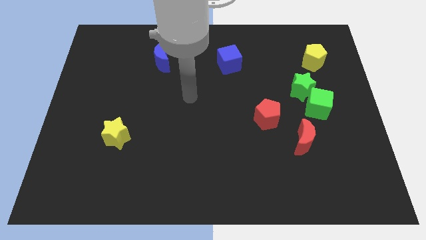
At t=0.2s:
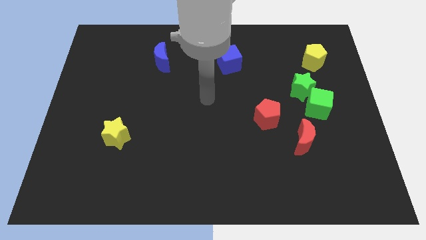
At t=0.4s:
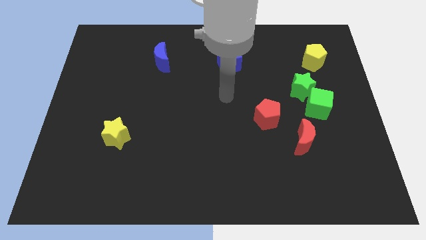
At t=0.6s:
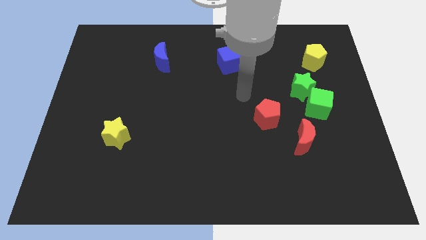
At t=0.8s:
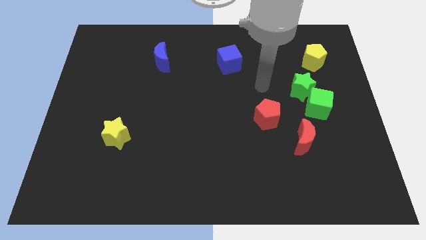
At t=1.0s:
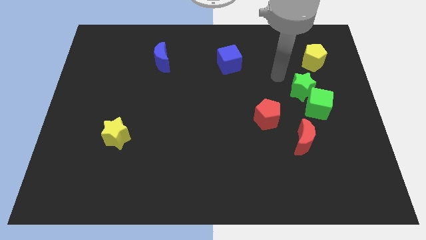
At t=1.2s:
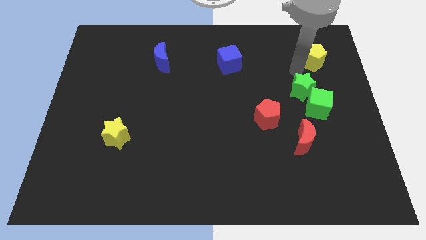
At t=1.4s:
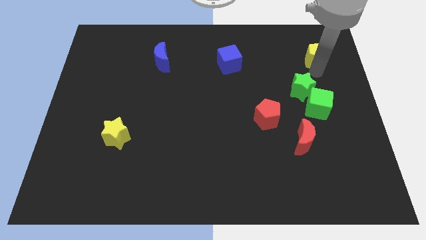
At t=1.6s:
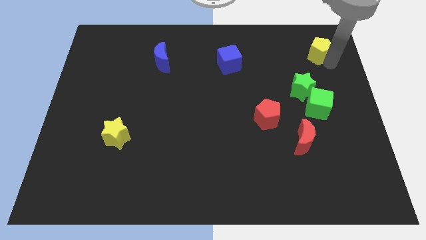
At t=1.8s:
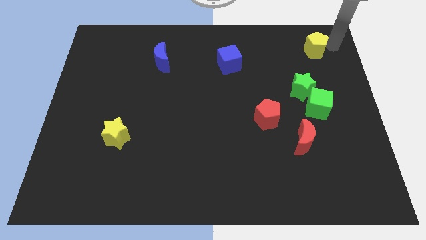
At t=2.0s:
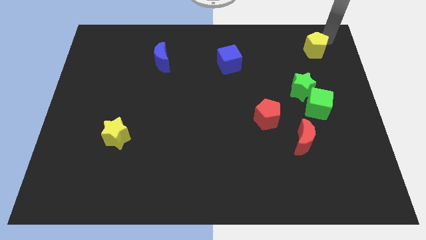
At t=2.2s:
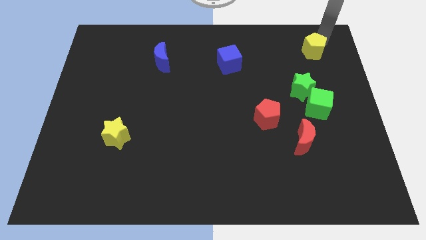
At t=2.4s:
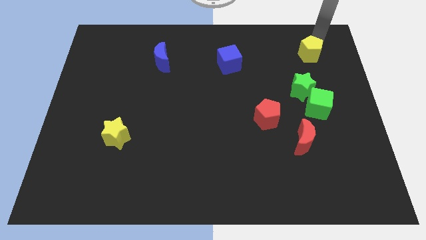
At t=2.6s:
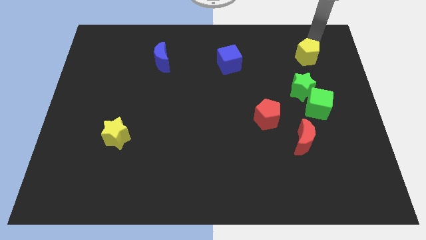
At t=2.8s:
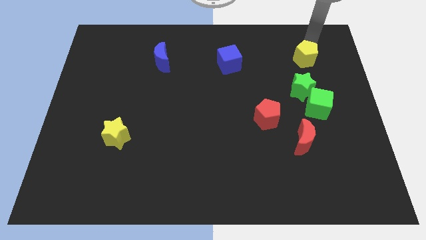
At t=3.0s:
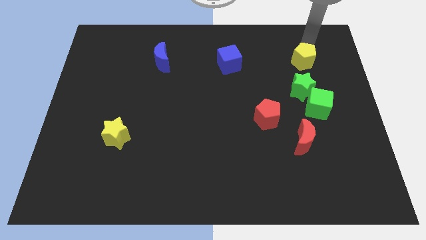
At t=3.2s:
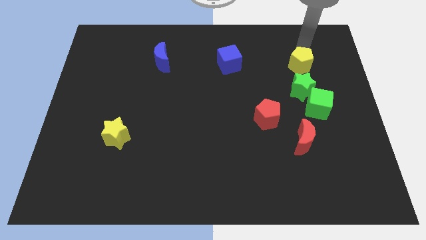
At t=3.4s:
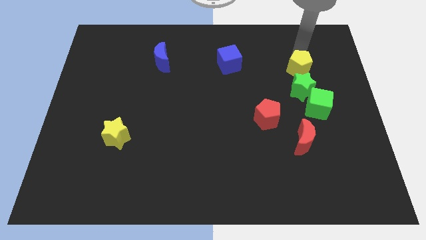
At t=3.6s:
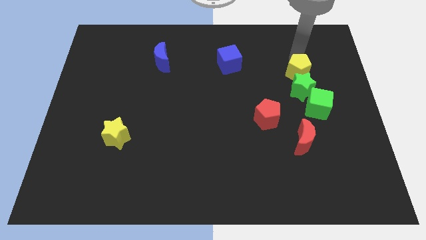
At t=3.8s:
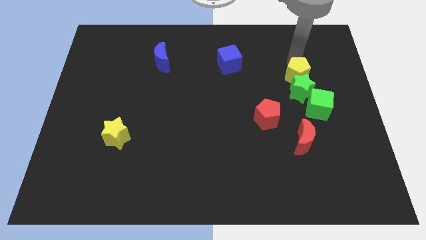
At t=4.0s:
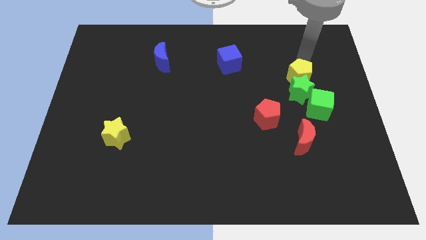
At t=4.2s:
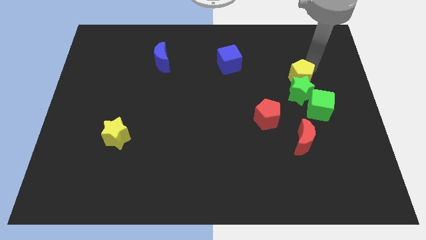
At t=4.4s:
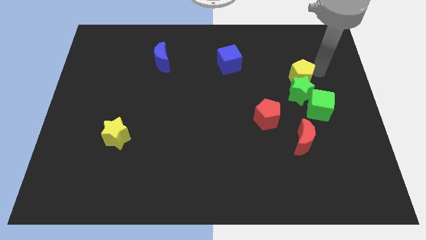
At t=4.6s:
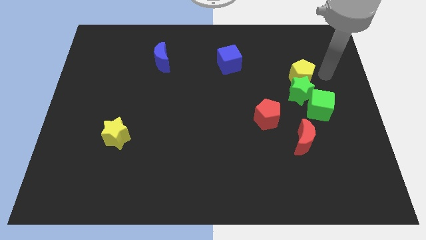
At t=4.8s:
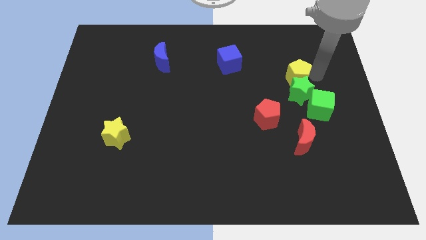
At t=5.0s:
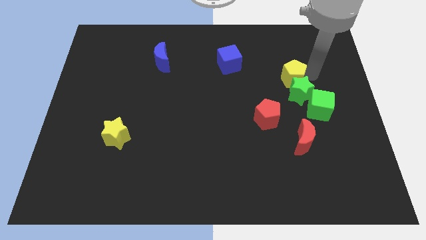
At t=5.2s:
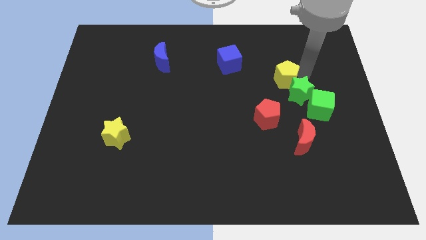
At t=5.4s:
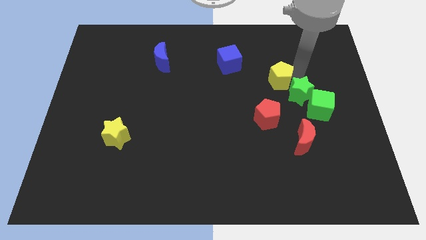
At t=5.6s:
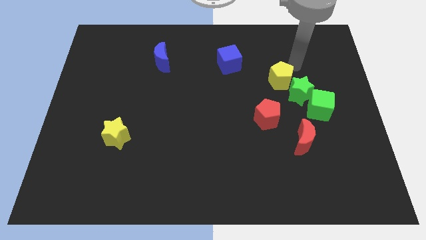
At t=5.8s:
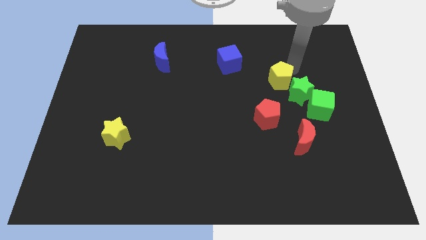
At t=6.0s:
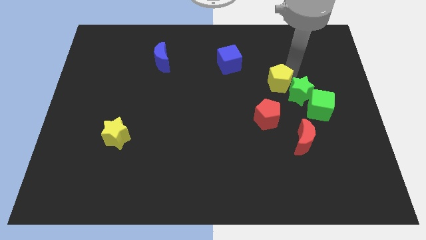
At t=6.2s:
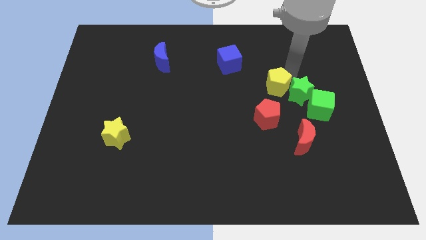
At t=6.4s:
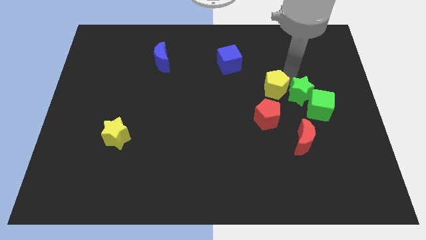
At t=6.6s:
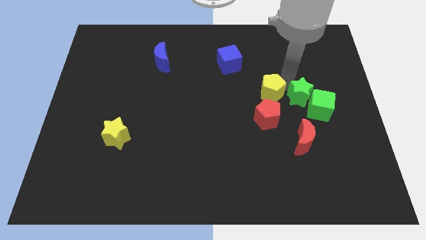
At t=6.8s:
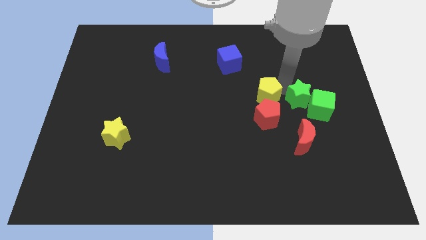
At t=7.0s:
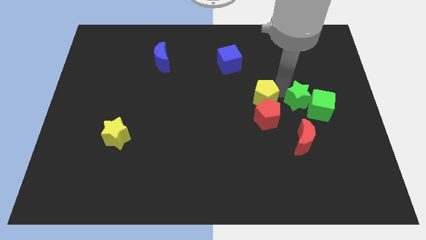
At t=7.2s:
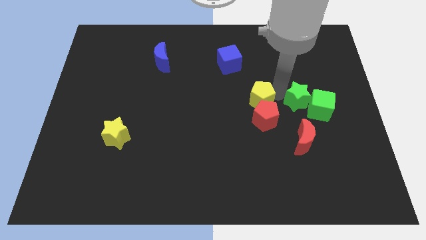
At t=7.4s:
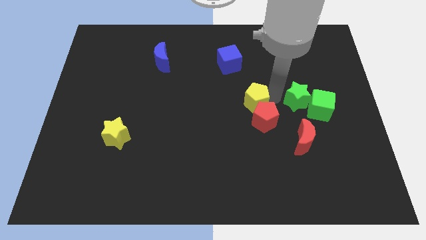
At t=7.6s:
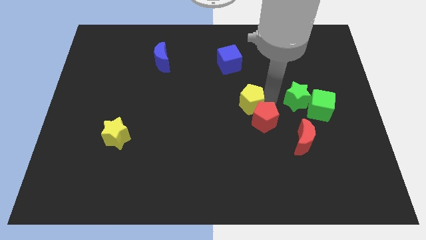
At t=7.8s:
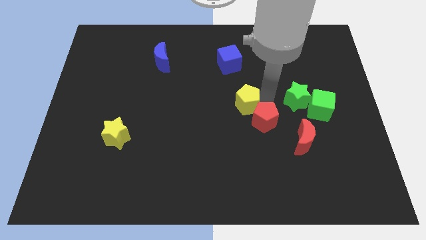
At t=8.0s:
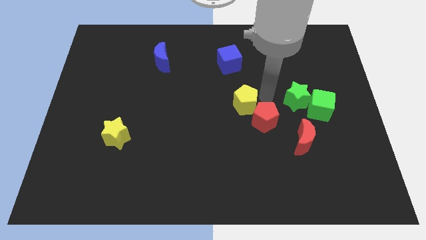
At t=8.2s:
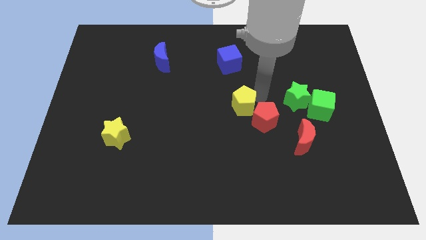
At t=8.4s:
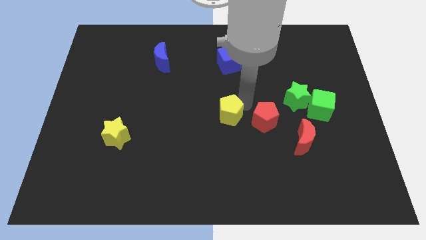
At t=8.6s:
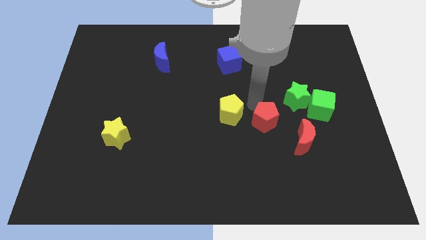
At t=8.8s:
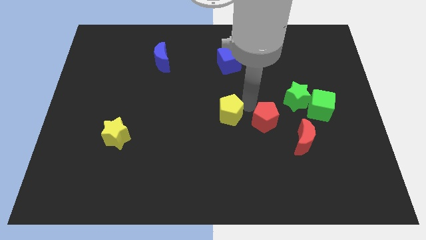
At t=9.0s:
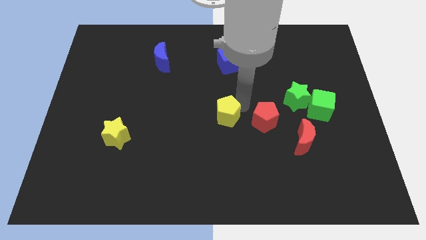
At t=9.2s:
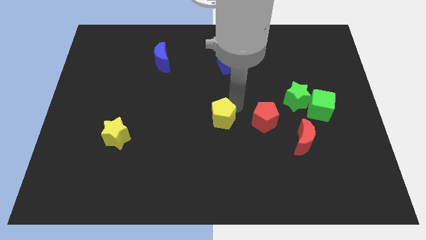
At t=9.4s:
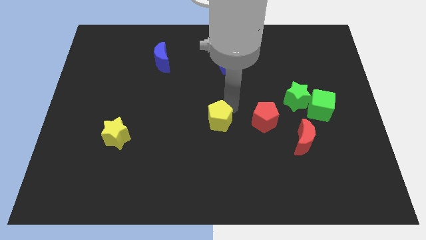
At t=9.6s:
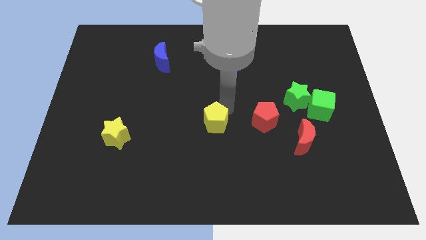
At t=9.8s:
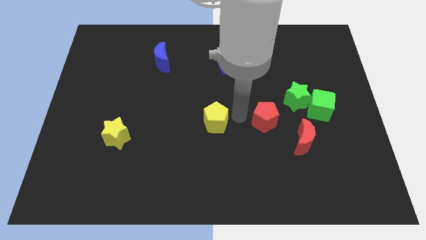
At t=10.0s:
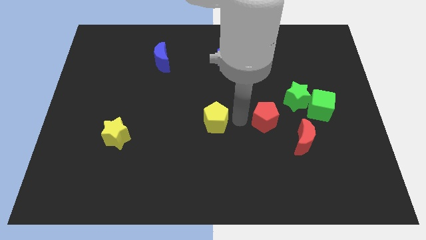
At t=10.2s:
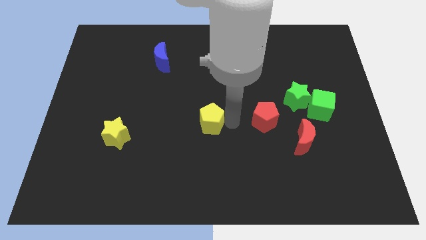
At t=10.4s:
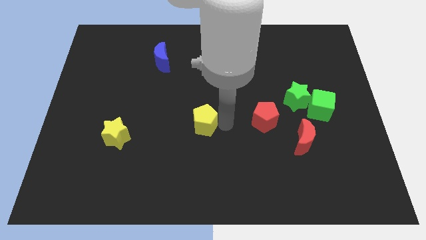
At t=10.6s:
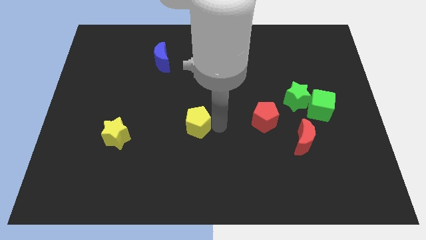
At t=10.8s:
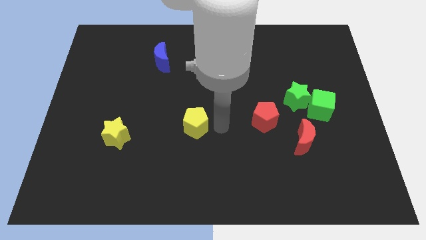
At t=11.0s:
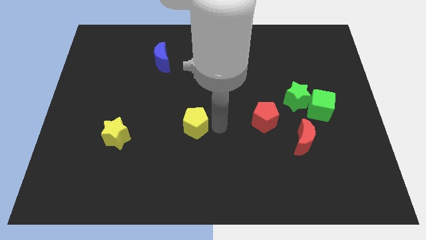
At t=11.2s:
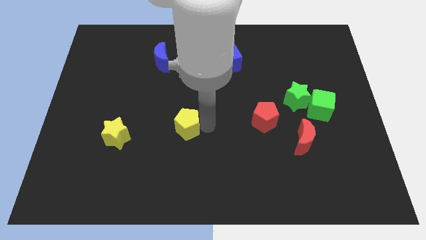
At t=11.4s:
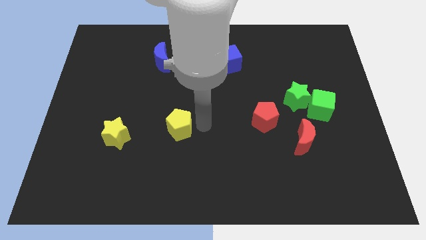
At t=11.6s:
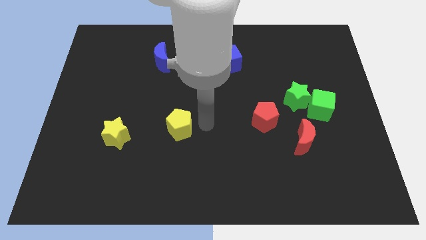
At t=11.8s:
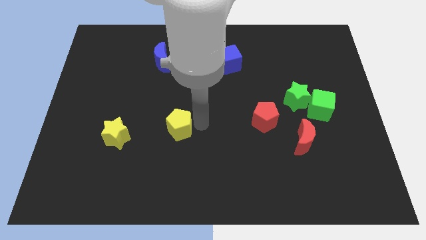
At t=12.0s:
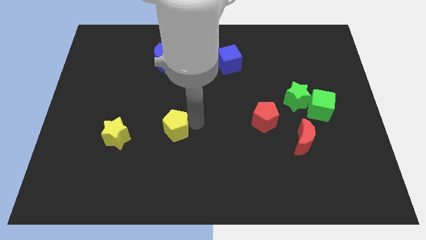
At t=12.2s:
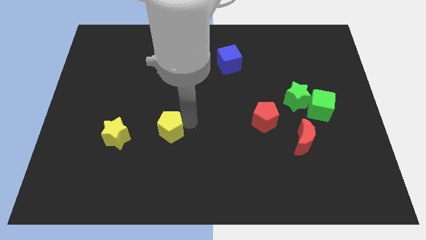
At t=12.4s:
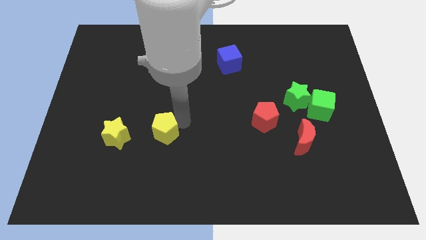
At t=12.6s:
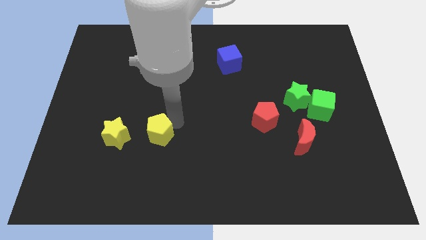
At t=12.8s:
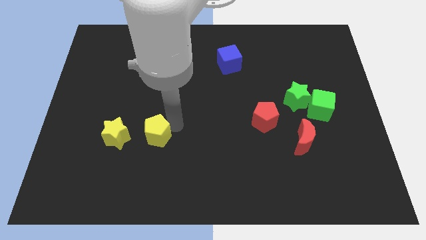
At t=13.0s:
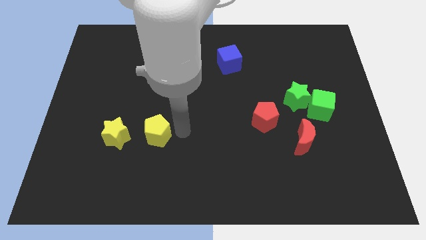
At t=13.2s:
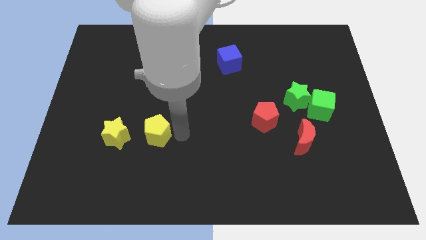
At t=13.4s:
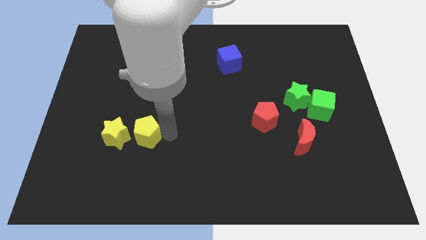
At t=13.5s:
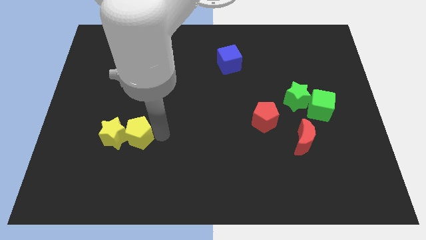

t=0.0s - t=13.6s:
slide the yellow pentagon to the yellow star

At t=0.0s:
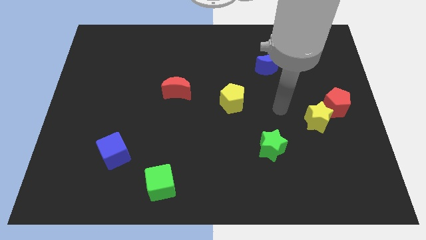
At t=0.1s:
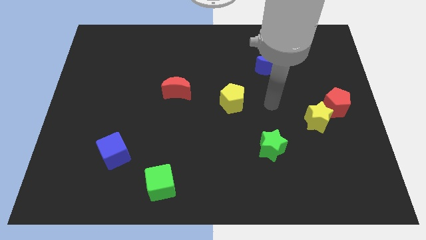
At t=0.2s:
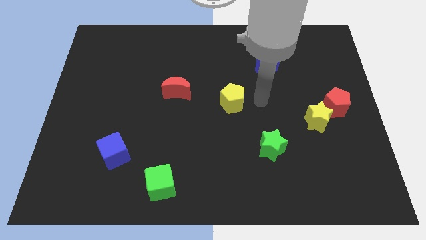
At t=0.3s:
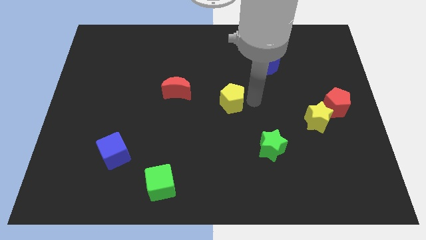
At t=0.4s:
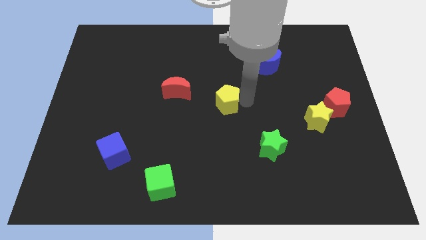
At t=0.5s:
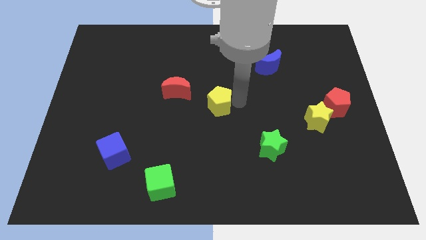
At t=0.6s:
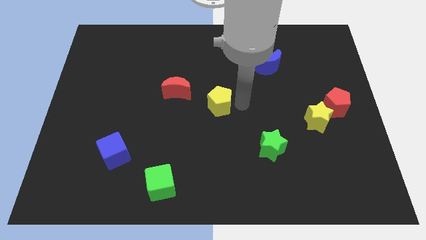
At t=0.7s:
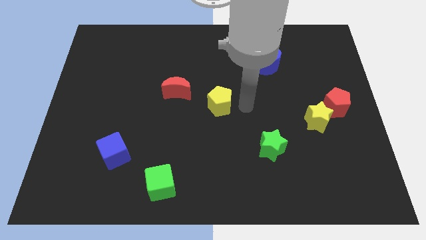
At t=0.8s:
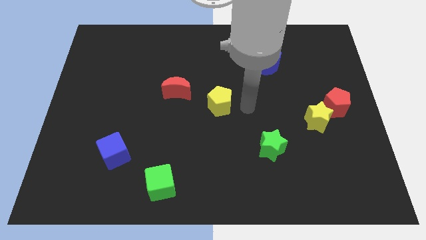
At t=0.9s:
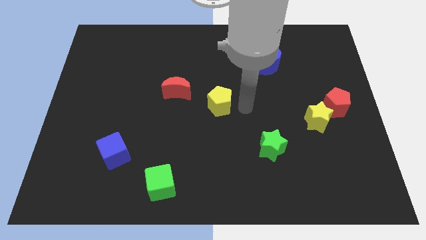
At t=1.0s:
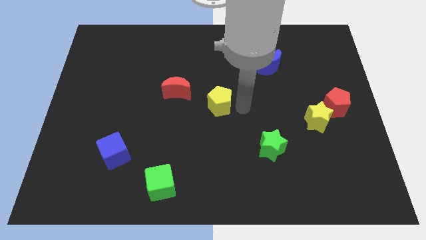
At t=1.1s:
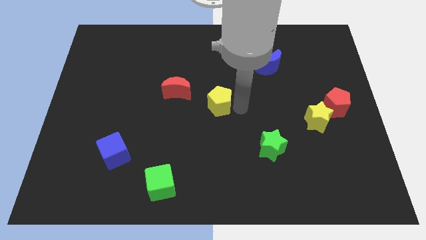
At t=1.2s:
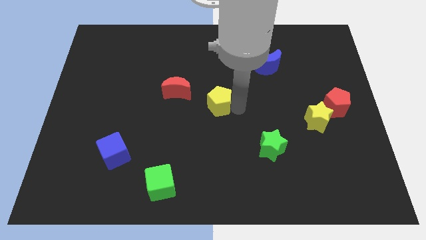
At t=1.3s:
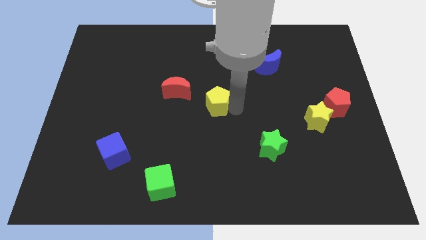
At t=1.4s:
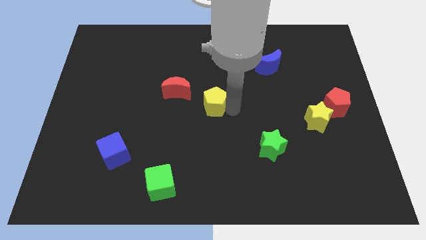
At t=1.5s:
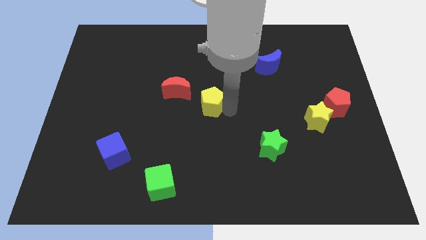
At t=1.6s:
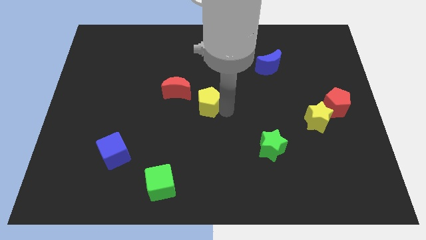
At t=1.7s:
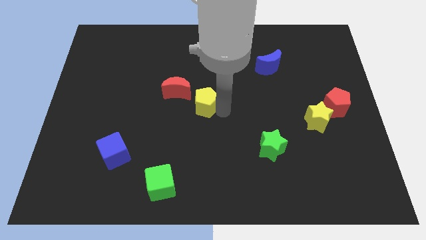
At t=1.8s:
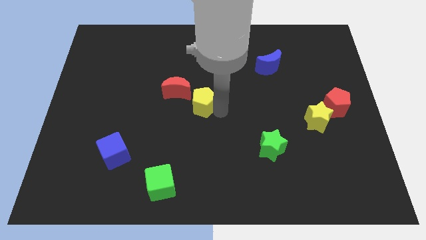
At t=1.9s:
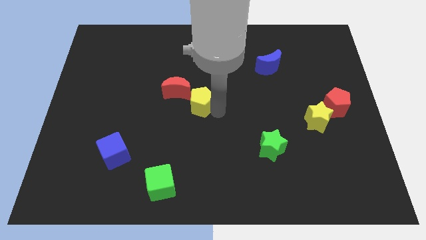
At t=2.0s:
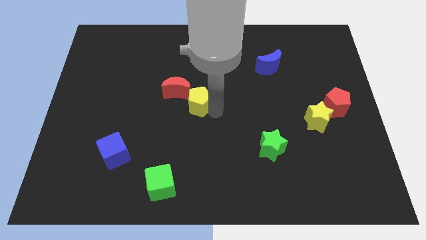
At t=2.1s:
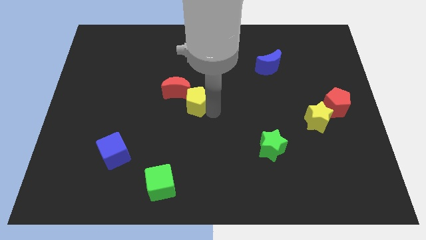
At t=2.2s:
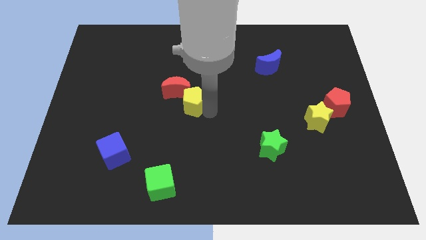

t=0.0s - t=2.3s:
push the yellow pentagon to the red moon
